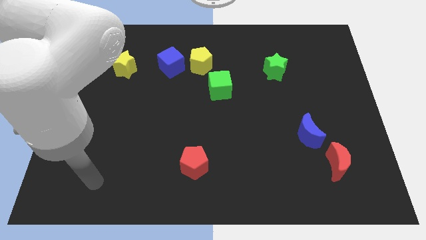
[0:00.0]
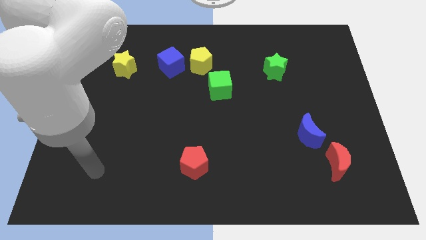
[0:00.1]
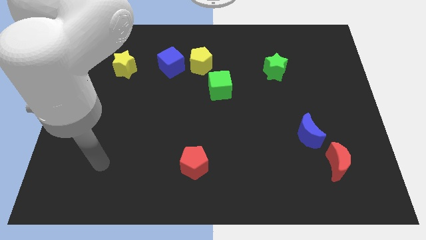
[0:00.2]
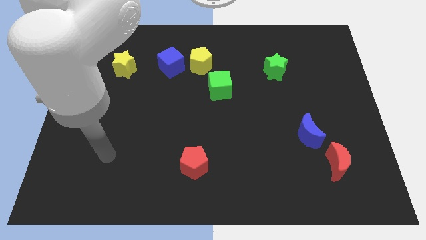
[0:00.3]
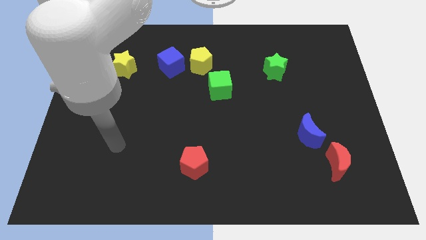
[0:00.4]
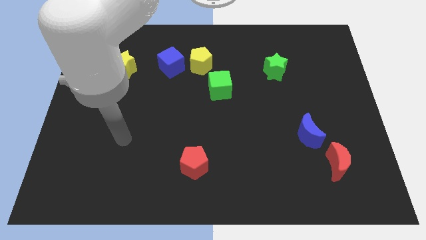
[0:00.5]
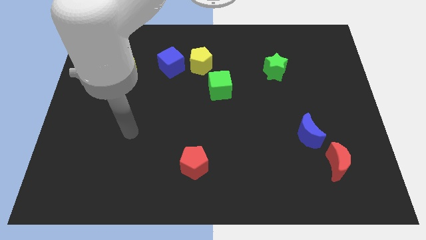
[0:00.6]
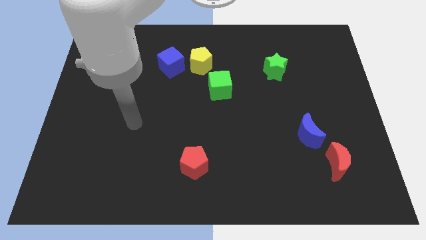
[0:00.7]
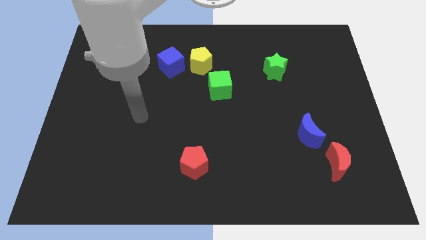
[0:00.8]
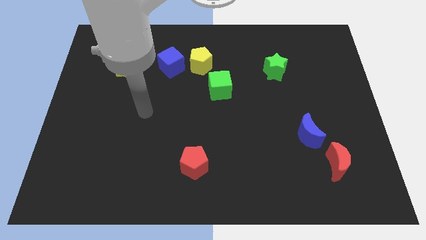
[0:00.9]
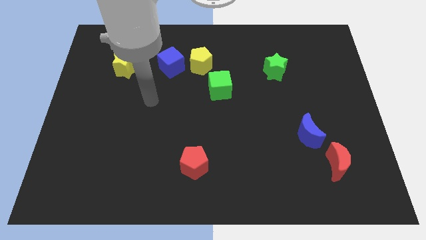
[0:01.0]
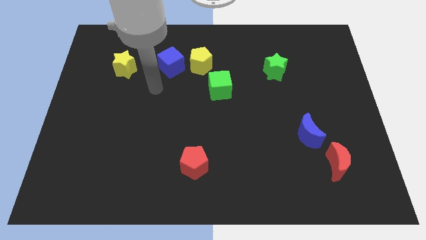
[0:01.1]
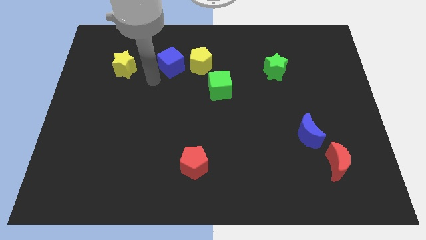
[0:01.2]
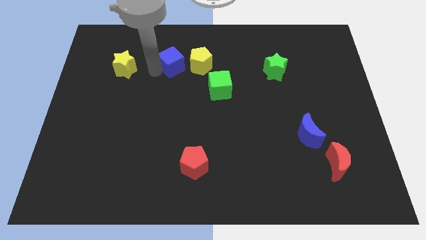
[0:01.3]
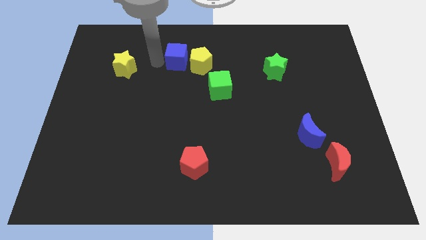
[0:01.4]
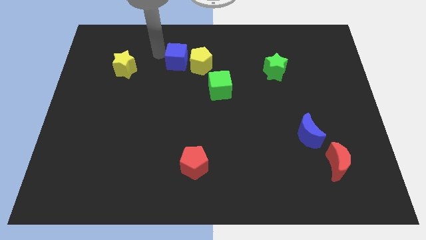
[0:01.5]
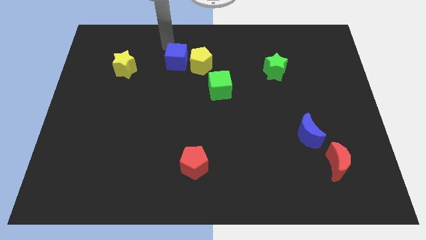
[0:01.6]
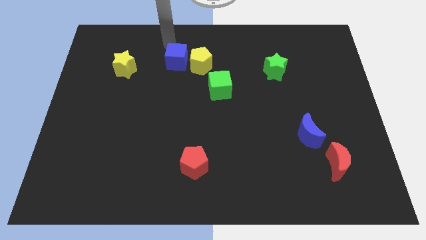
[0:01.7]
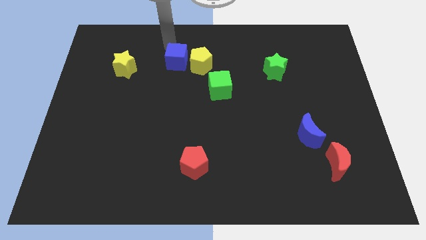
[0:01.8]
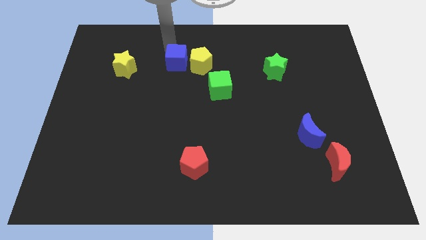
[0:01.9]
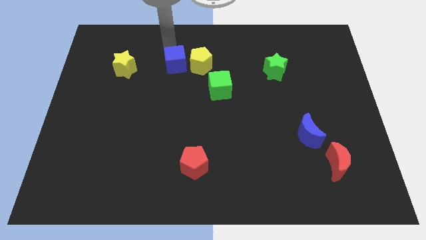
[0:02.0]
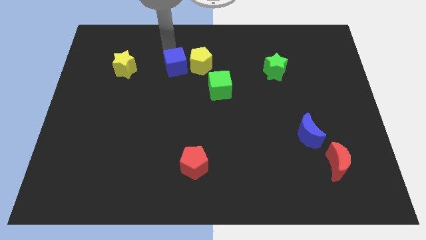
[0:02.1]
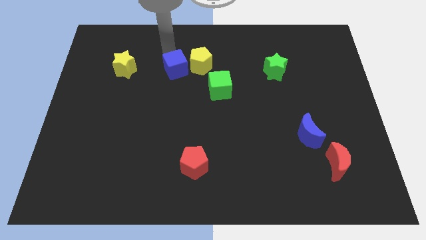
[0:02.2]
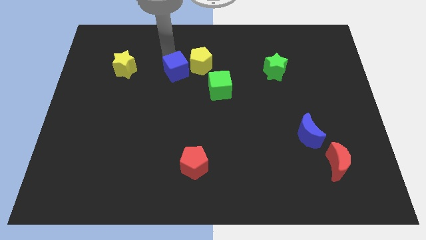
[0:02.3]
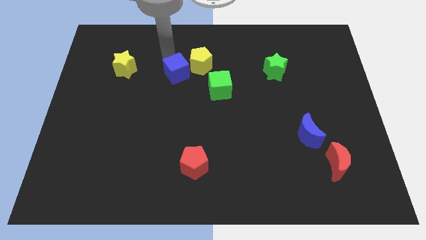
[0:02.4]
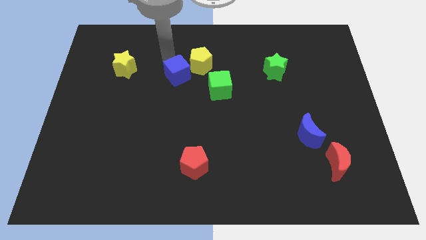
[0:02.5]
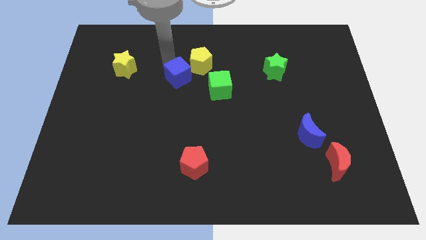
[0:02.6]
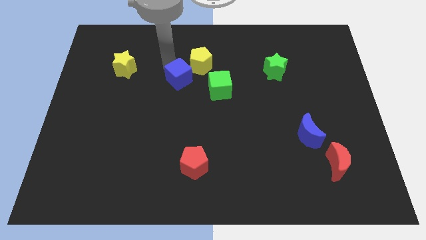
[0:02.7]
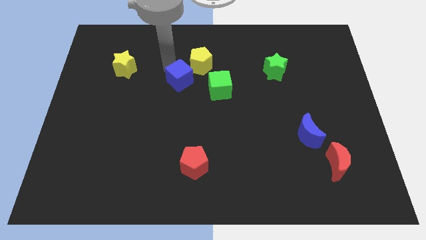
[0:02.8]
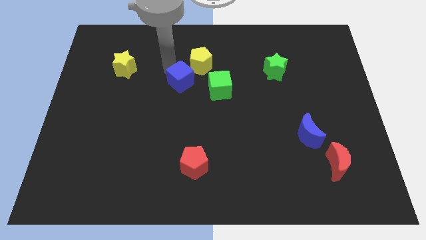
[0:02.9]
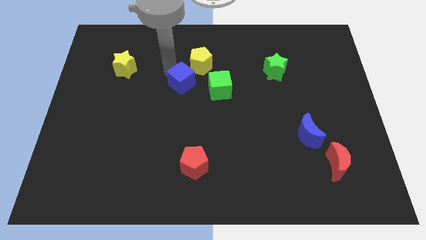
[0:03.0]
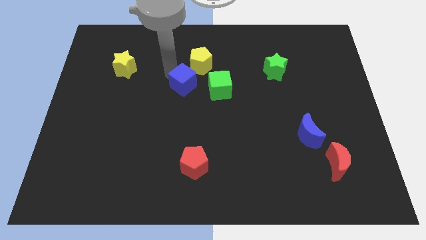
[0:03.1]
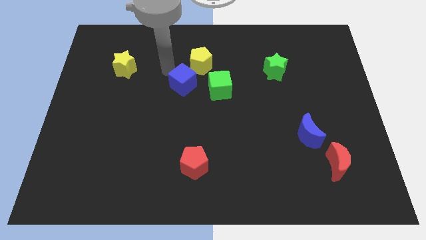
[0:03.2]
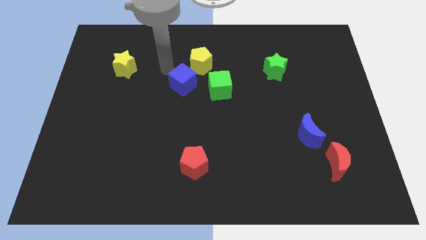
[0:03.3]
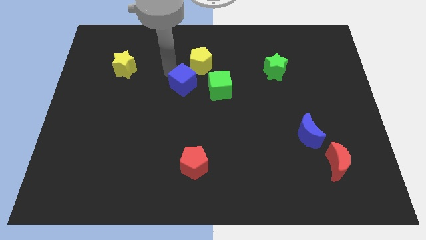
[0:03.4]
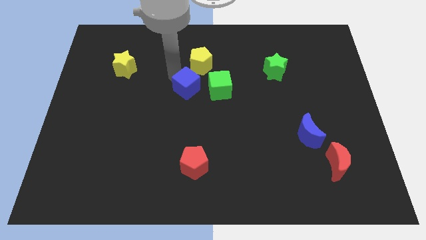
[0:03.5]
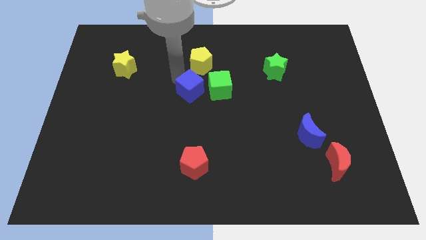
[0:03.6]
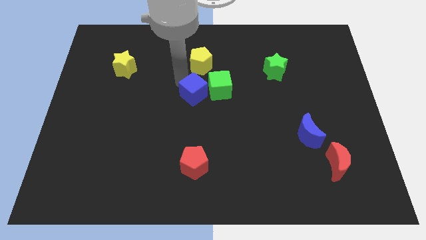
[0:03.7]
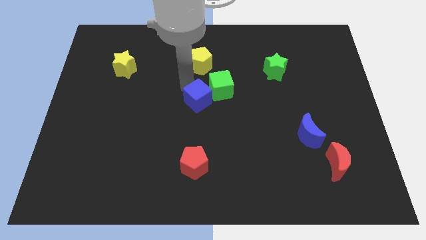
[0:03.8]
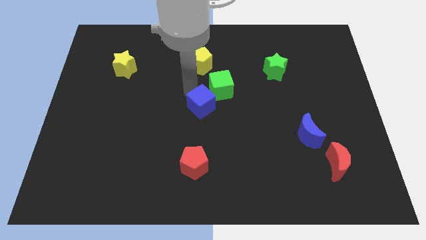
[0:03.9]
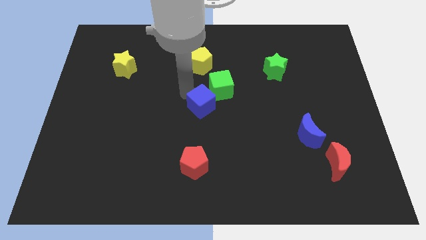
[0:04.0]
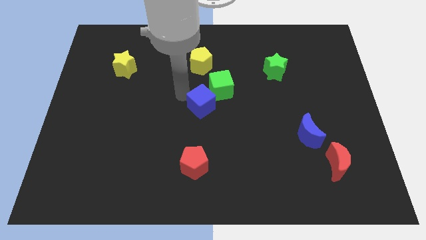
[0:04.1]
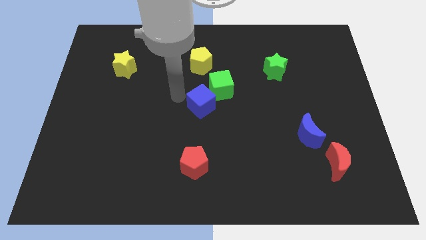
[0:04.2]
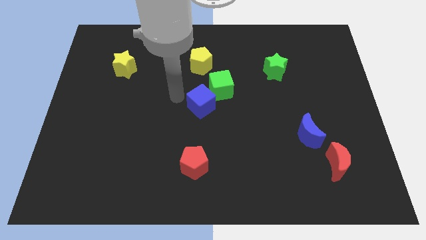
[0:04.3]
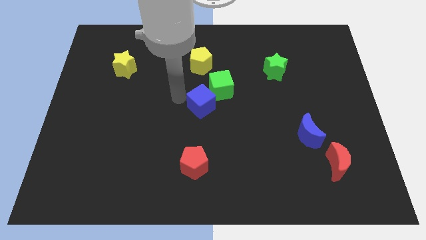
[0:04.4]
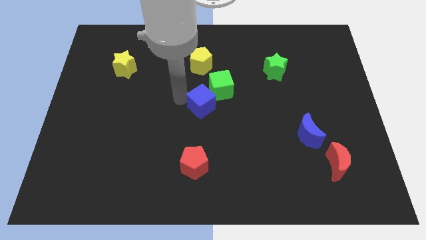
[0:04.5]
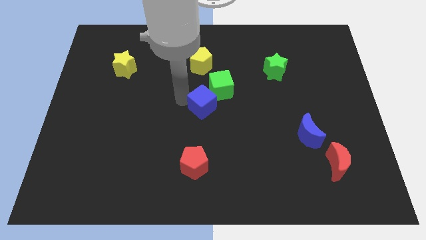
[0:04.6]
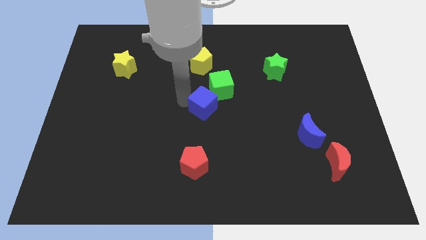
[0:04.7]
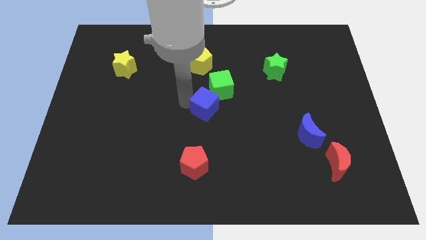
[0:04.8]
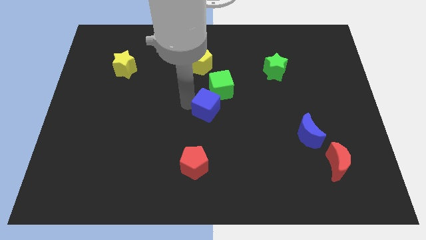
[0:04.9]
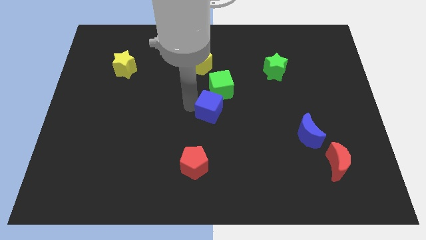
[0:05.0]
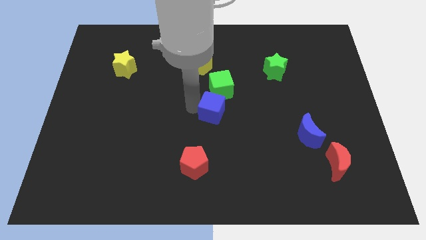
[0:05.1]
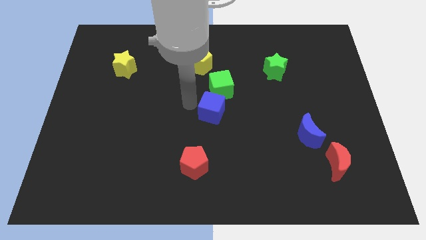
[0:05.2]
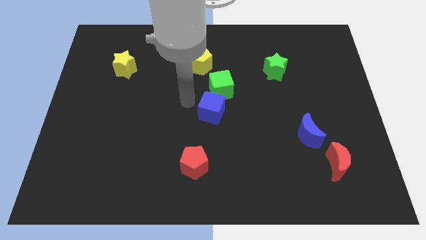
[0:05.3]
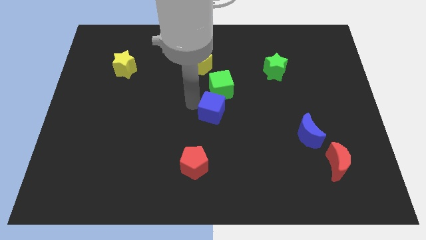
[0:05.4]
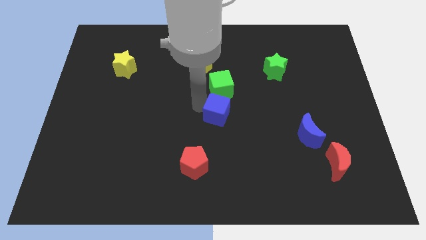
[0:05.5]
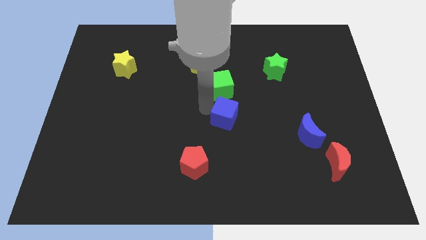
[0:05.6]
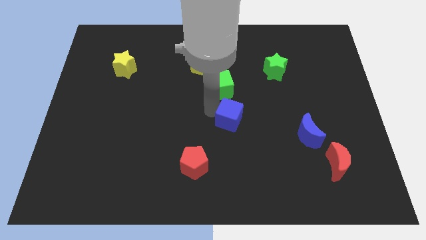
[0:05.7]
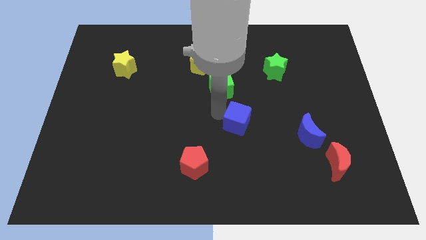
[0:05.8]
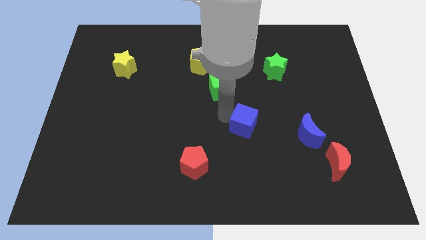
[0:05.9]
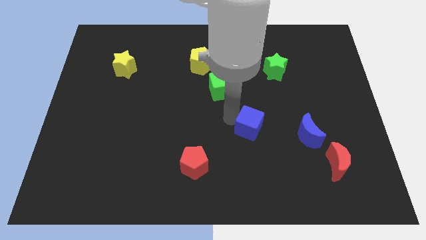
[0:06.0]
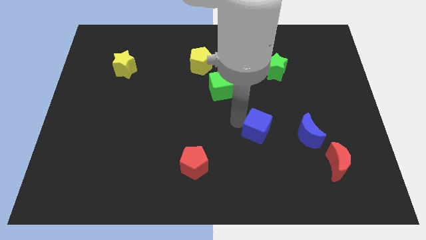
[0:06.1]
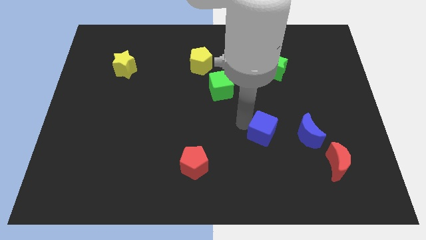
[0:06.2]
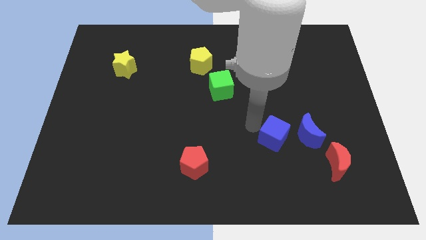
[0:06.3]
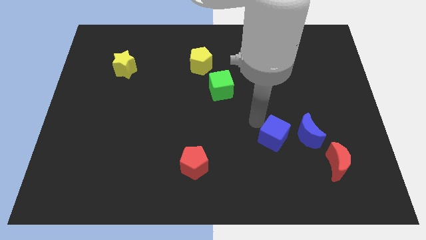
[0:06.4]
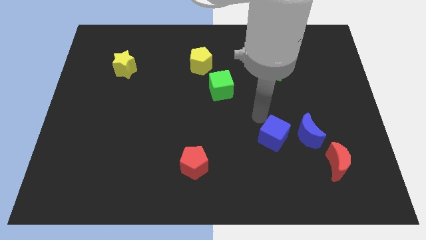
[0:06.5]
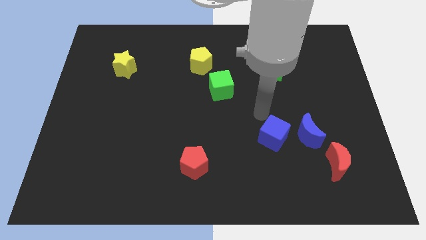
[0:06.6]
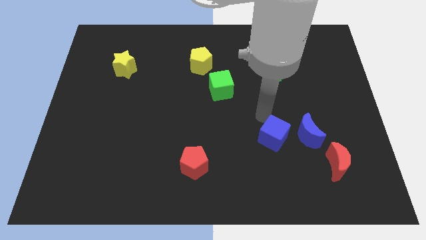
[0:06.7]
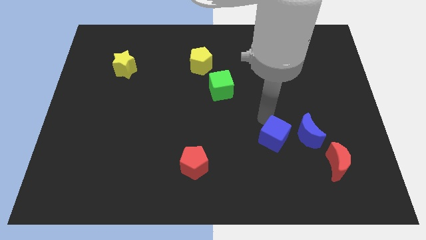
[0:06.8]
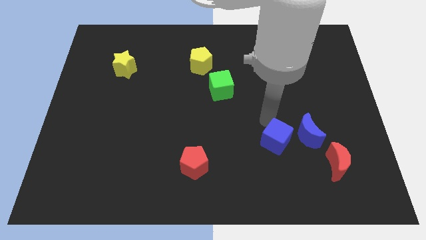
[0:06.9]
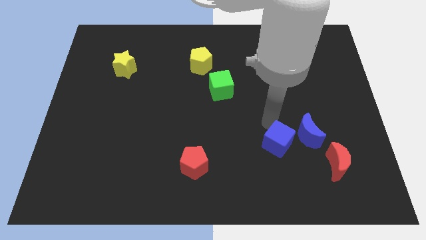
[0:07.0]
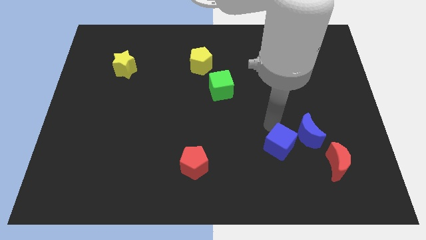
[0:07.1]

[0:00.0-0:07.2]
put the blue cube to the left side of the red moon

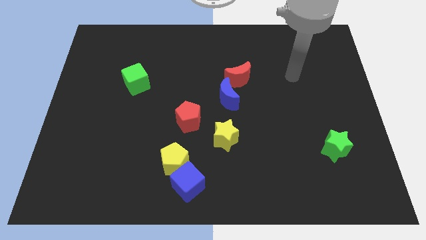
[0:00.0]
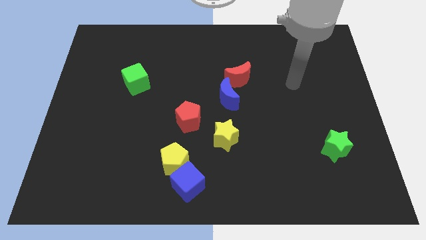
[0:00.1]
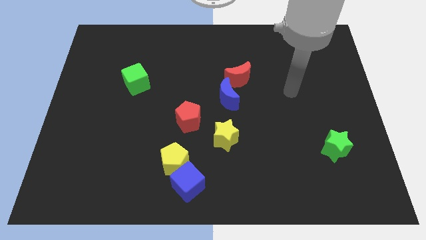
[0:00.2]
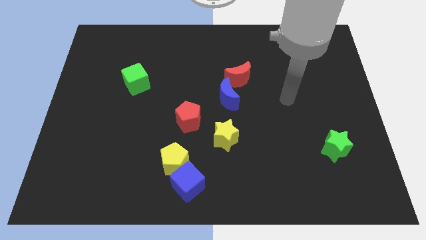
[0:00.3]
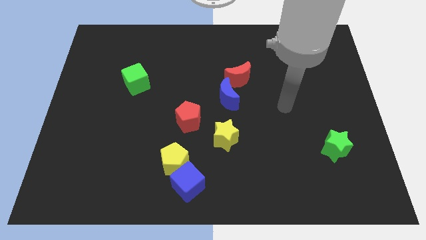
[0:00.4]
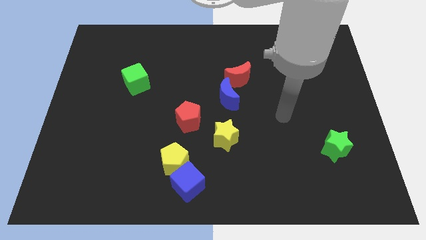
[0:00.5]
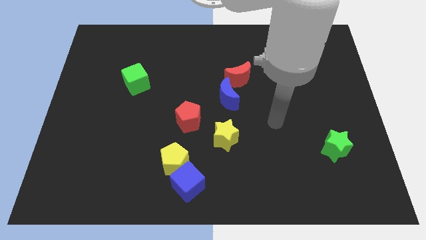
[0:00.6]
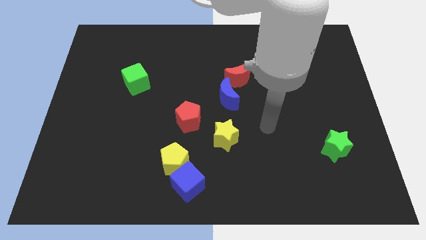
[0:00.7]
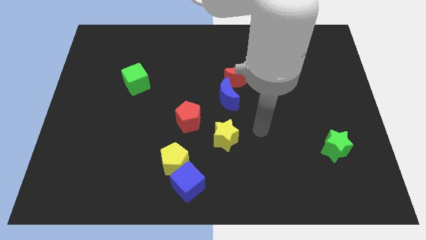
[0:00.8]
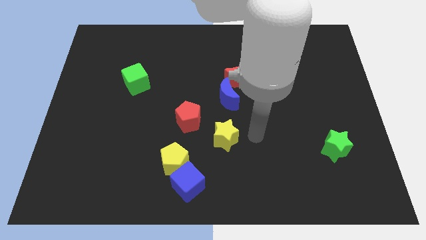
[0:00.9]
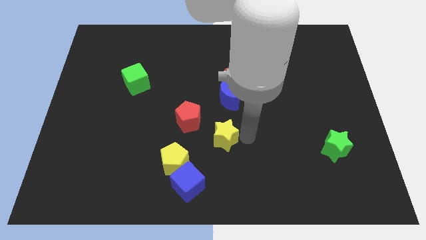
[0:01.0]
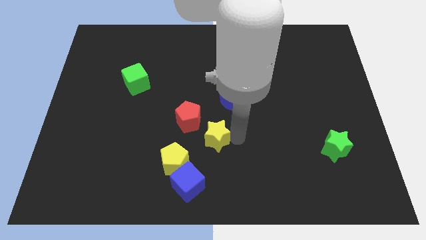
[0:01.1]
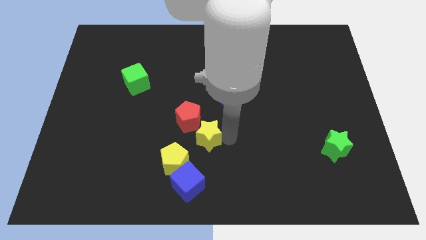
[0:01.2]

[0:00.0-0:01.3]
push the yellow star to the top of the blue cube
